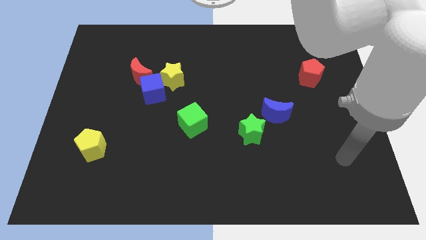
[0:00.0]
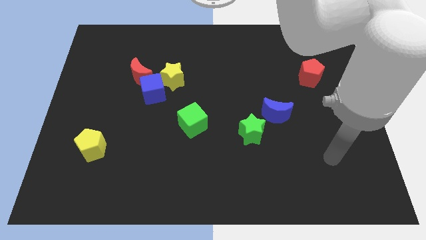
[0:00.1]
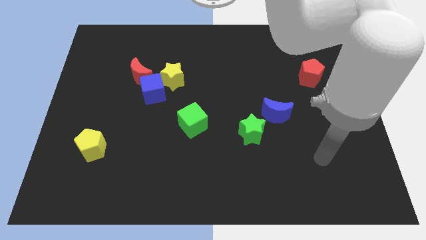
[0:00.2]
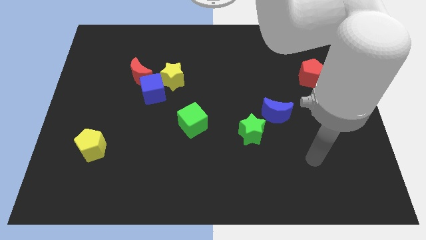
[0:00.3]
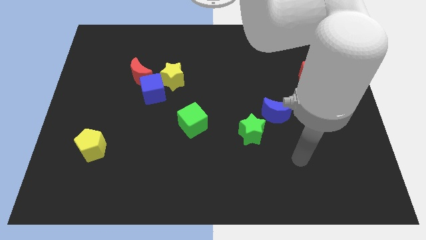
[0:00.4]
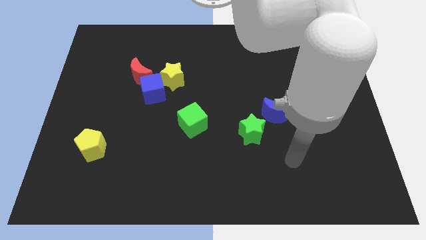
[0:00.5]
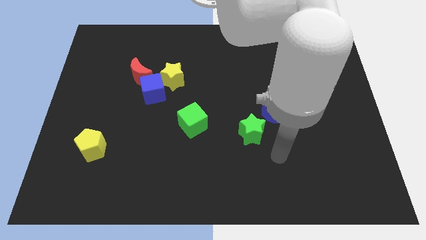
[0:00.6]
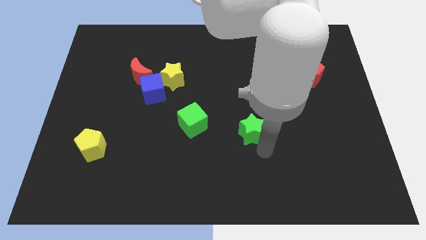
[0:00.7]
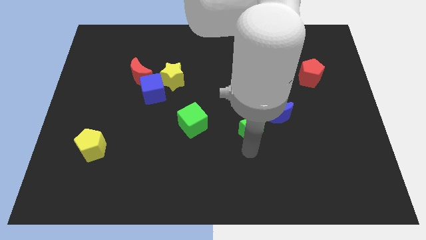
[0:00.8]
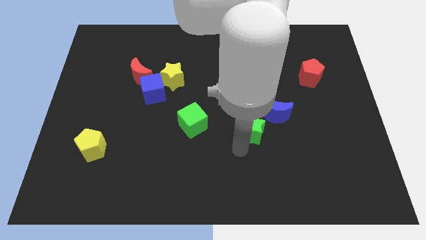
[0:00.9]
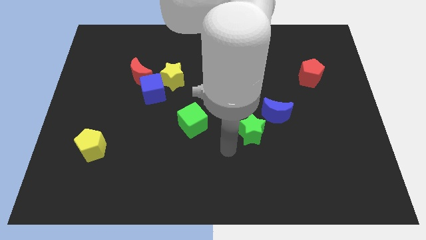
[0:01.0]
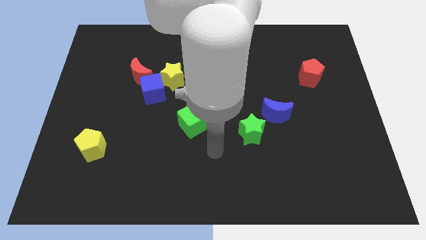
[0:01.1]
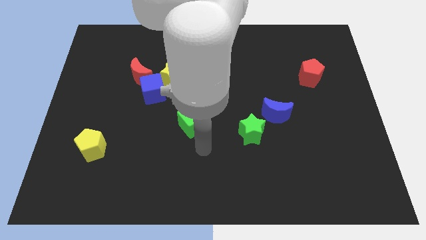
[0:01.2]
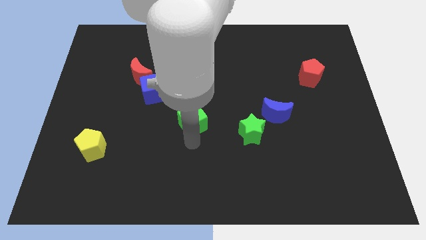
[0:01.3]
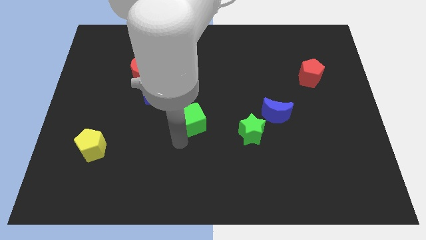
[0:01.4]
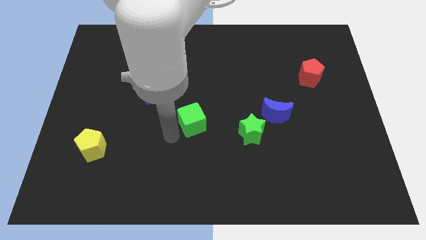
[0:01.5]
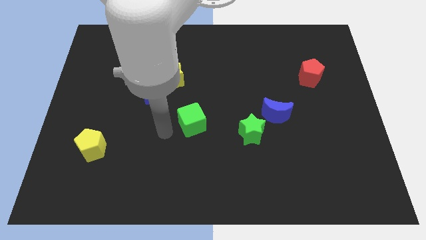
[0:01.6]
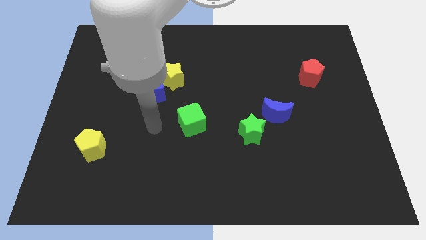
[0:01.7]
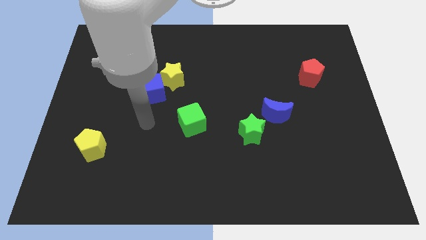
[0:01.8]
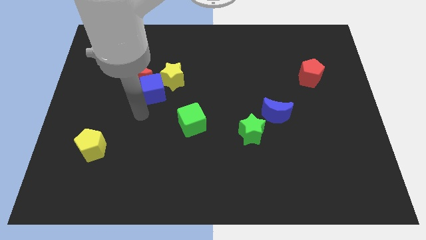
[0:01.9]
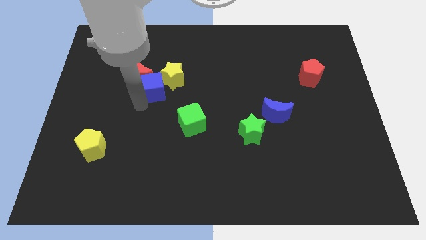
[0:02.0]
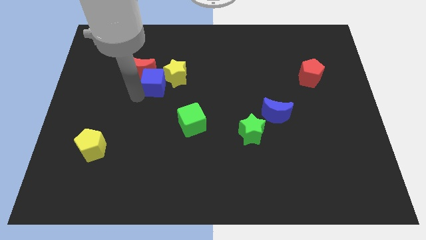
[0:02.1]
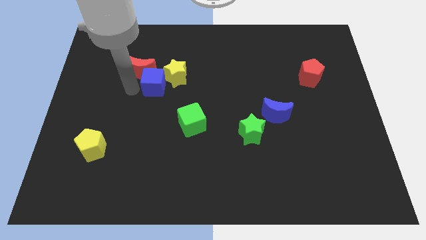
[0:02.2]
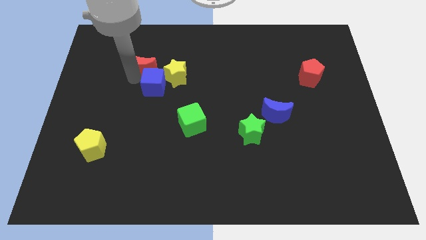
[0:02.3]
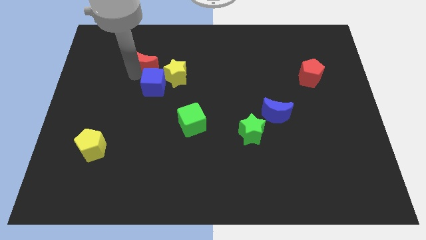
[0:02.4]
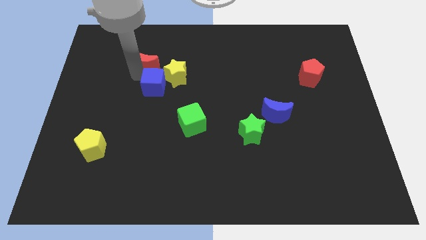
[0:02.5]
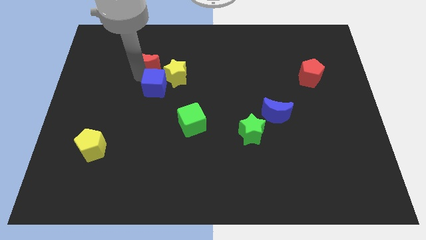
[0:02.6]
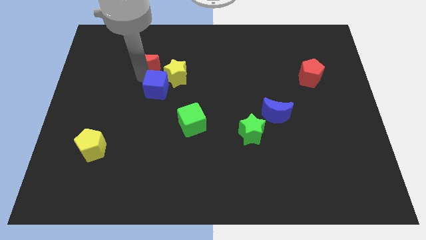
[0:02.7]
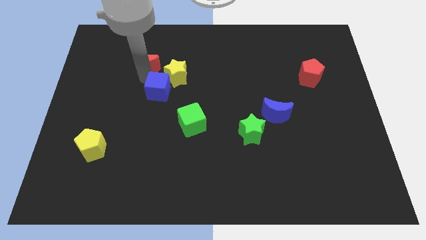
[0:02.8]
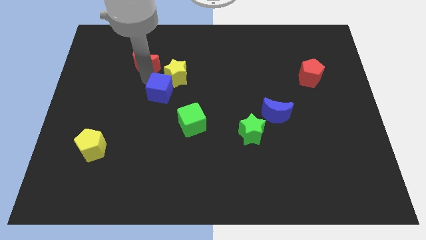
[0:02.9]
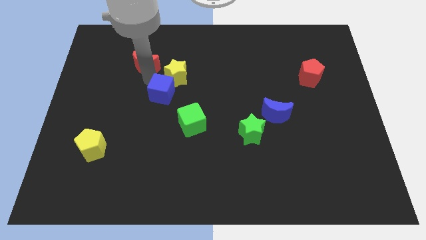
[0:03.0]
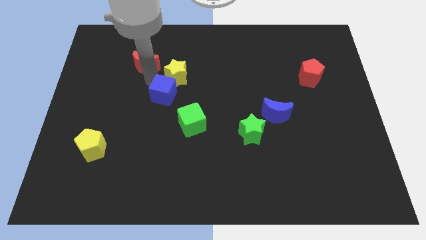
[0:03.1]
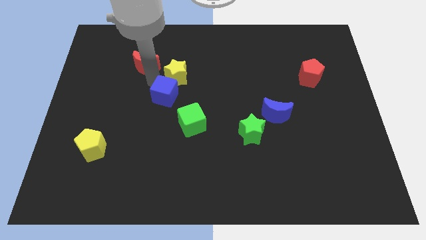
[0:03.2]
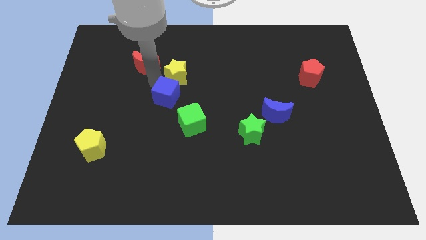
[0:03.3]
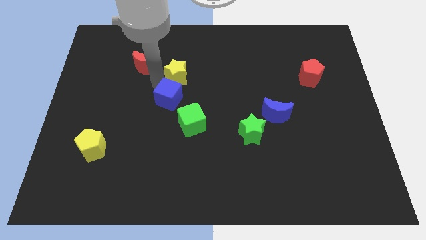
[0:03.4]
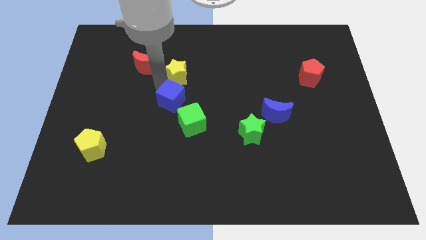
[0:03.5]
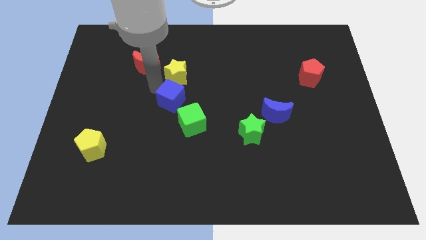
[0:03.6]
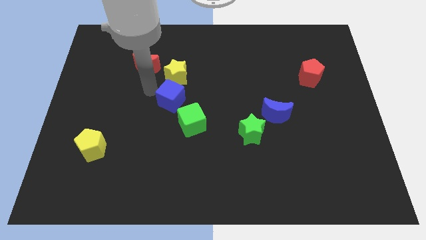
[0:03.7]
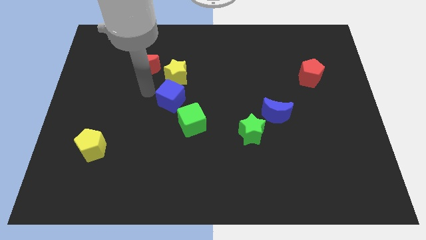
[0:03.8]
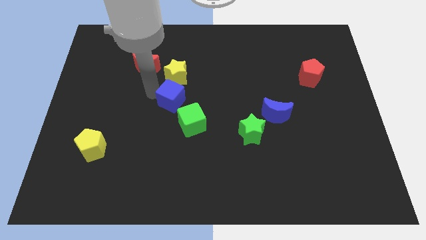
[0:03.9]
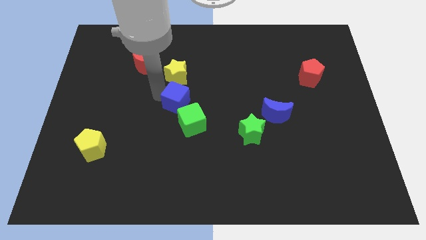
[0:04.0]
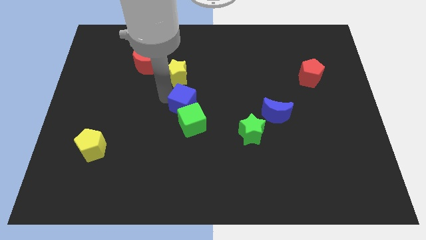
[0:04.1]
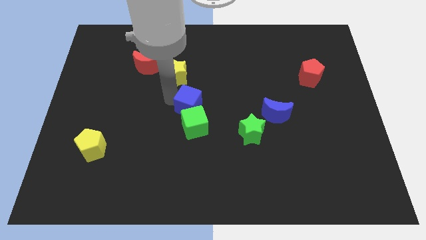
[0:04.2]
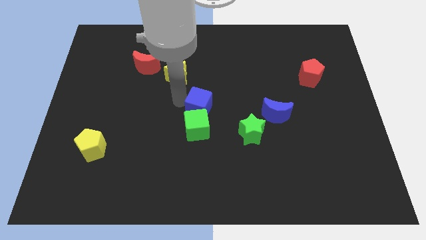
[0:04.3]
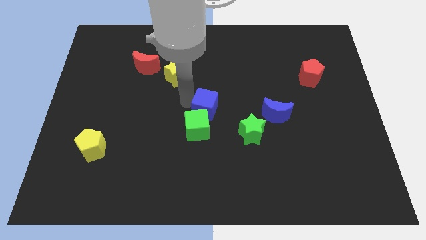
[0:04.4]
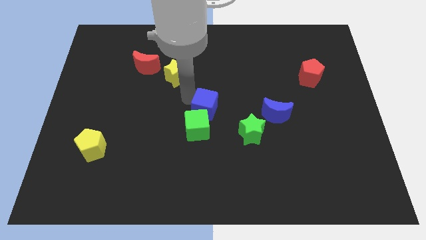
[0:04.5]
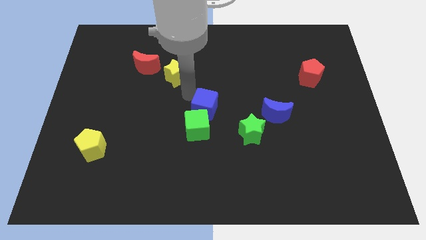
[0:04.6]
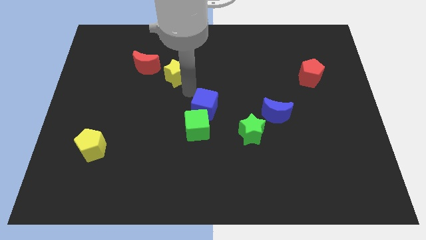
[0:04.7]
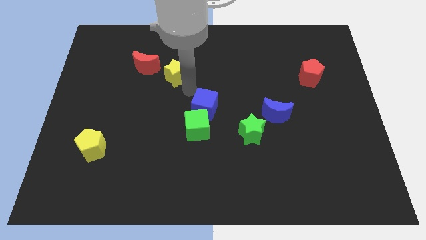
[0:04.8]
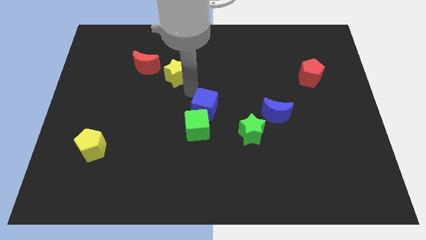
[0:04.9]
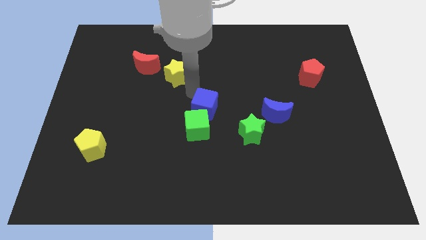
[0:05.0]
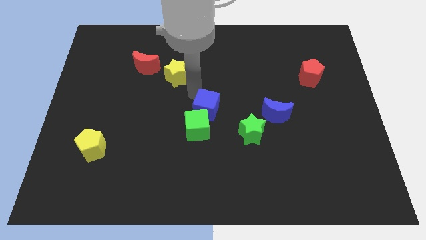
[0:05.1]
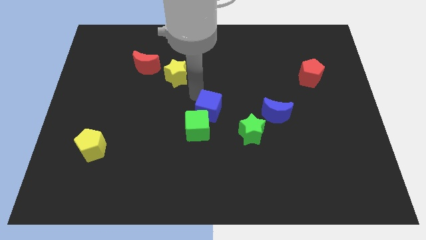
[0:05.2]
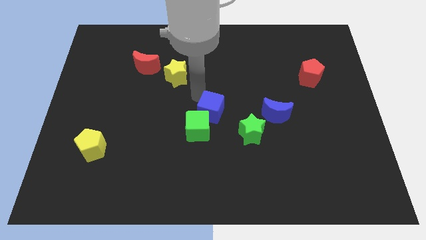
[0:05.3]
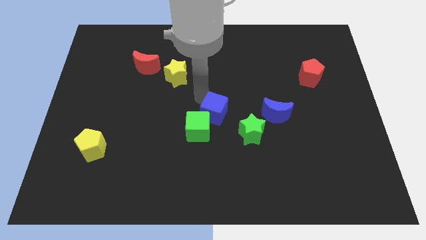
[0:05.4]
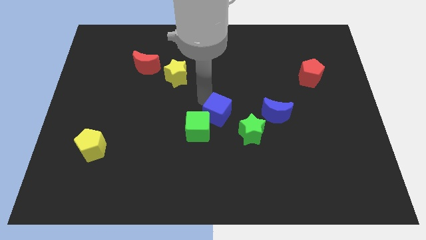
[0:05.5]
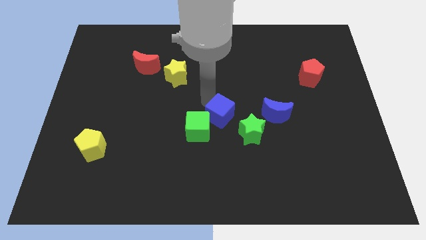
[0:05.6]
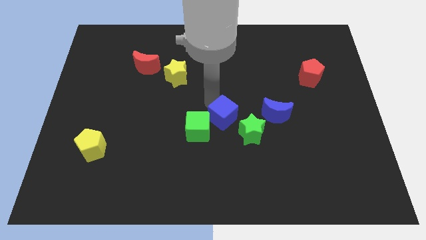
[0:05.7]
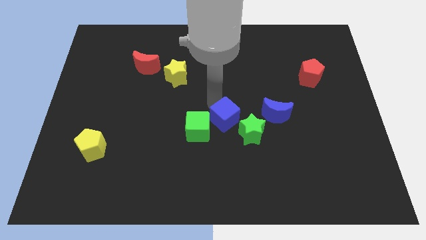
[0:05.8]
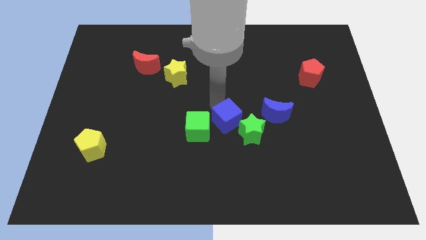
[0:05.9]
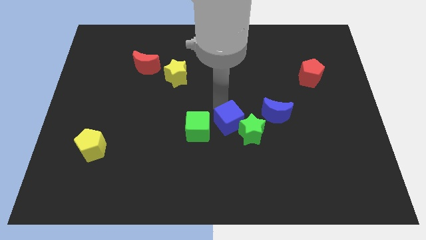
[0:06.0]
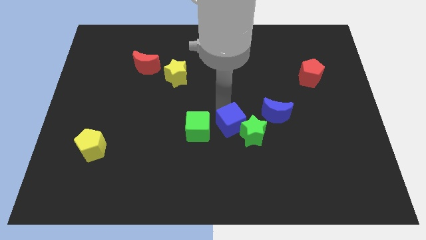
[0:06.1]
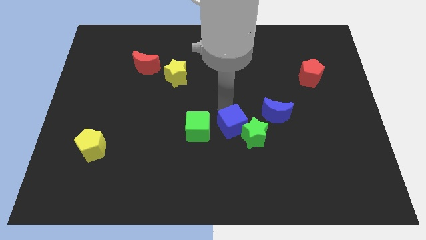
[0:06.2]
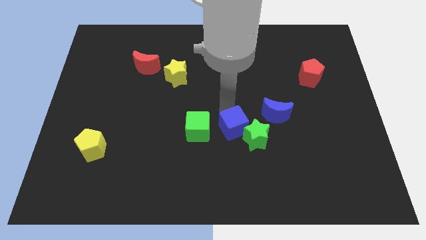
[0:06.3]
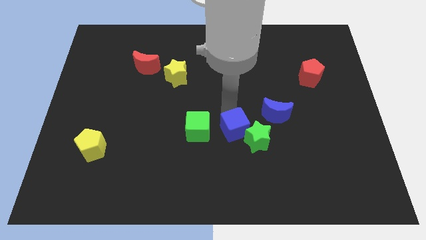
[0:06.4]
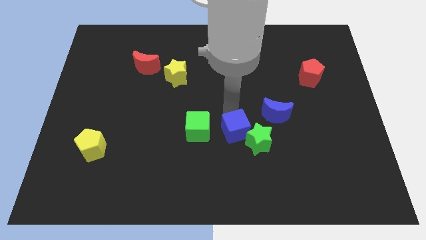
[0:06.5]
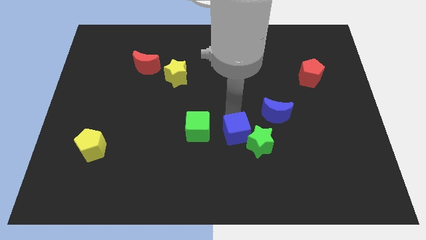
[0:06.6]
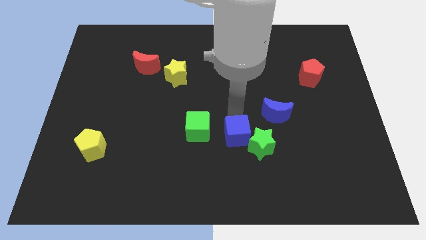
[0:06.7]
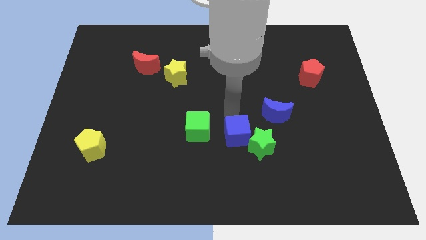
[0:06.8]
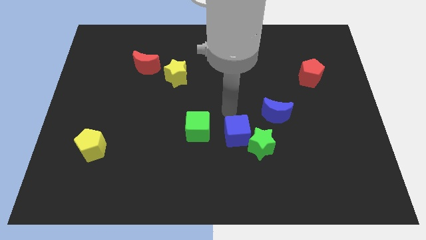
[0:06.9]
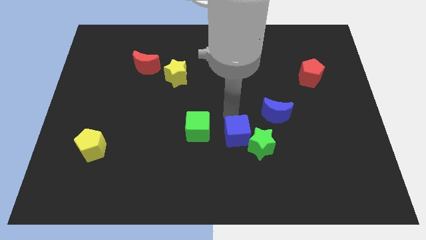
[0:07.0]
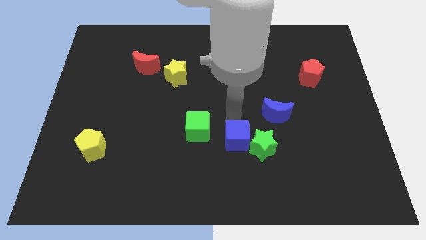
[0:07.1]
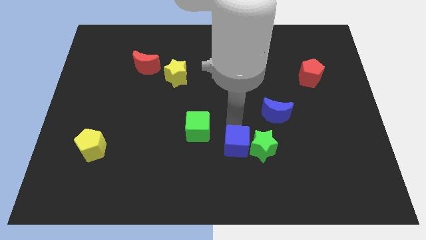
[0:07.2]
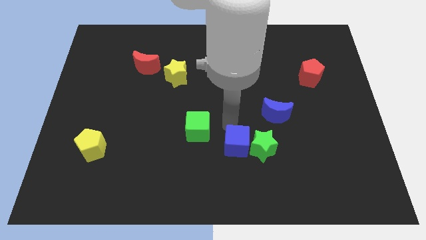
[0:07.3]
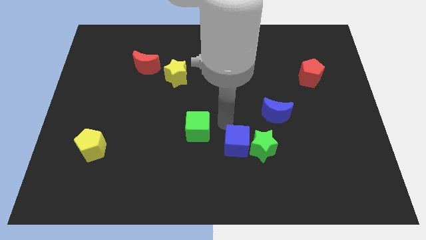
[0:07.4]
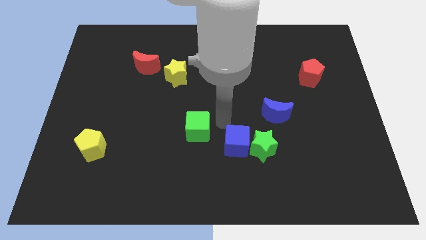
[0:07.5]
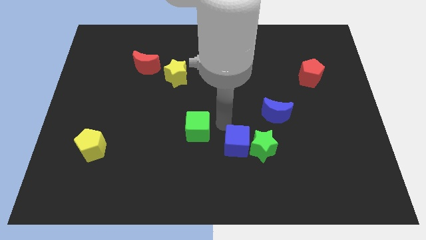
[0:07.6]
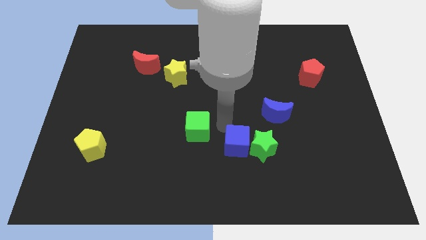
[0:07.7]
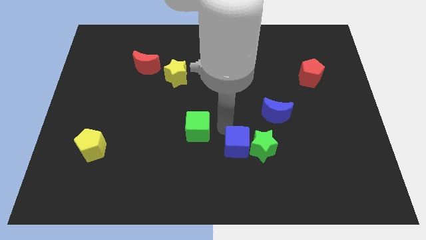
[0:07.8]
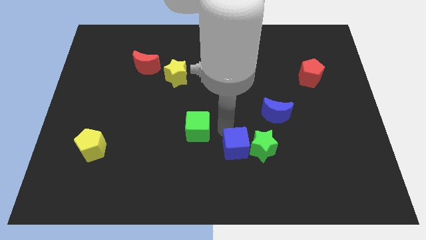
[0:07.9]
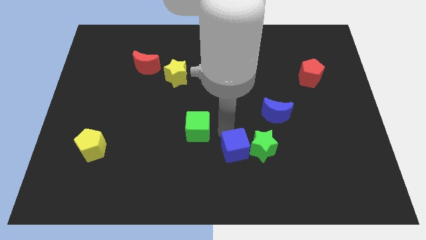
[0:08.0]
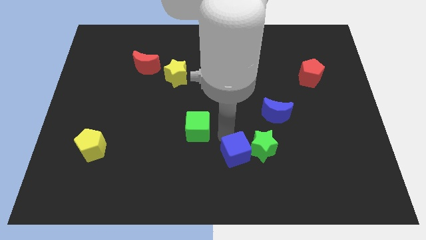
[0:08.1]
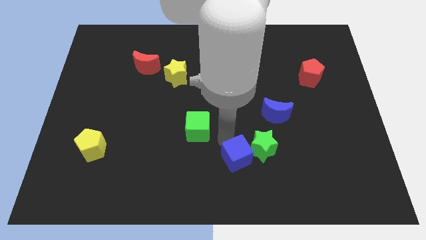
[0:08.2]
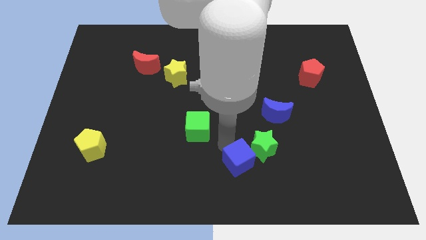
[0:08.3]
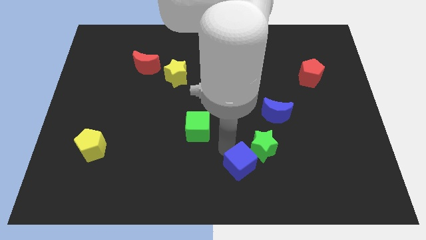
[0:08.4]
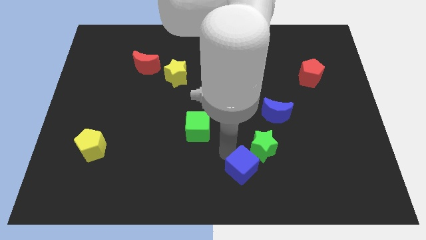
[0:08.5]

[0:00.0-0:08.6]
push the blue cube below the green star
